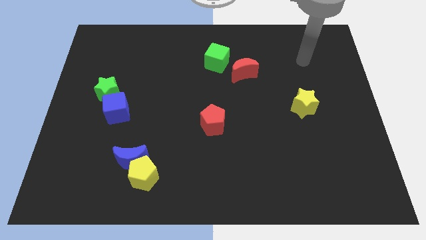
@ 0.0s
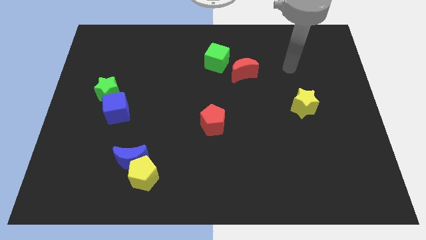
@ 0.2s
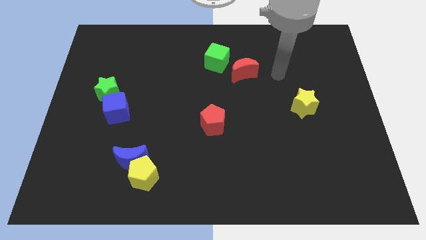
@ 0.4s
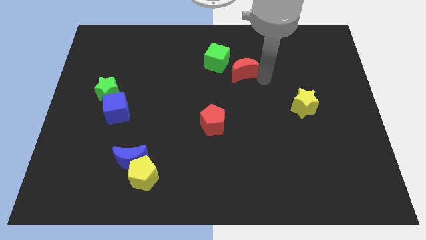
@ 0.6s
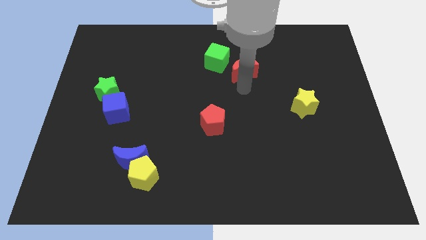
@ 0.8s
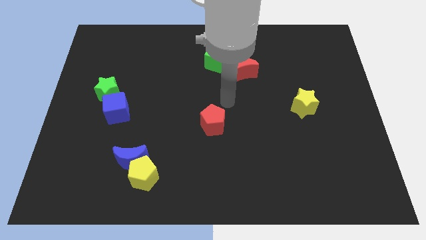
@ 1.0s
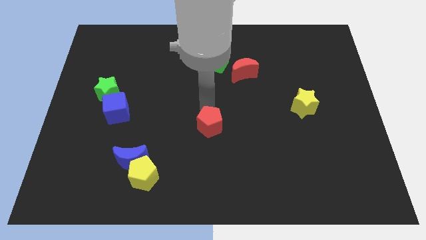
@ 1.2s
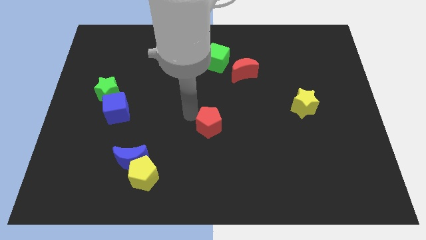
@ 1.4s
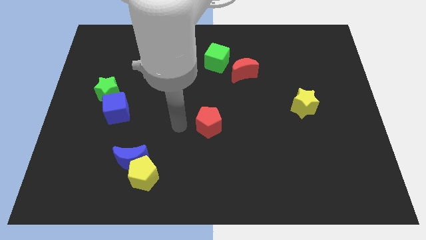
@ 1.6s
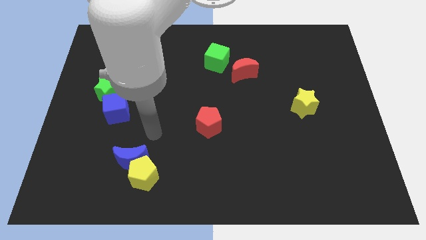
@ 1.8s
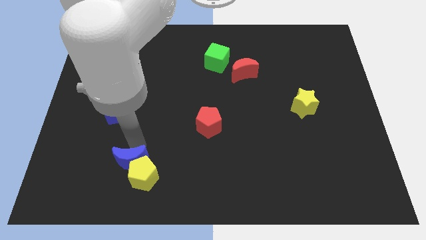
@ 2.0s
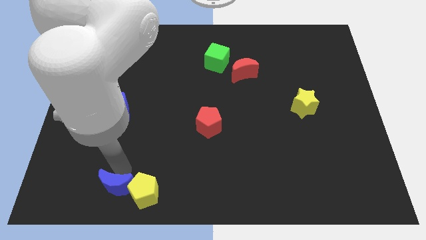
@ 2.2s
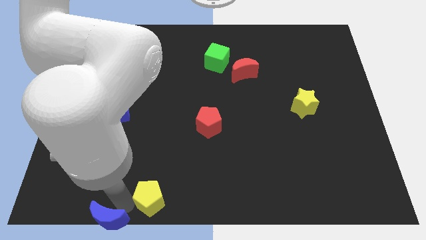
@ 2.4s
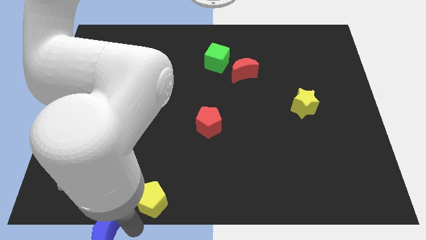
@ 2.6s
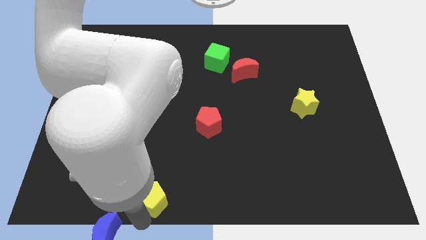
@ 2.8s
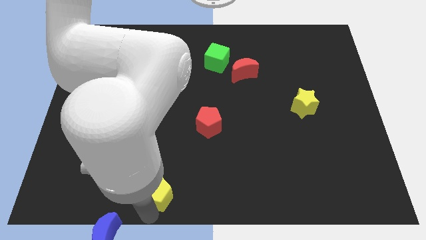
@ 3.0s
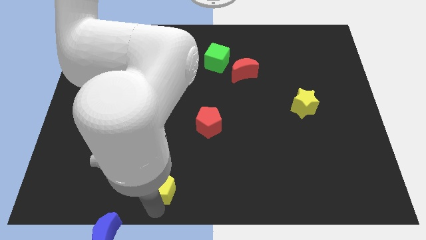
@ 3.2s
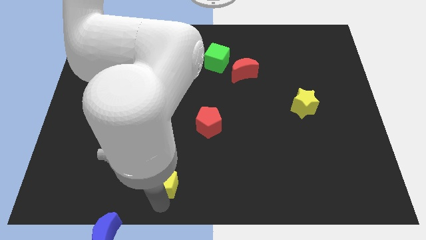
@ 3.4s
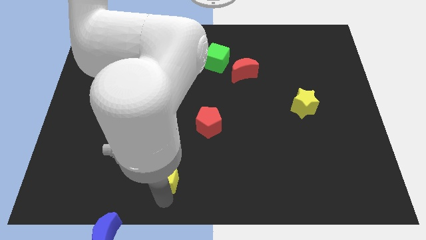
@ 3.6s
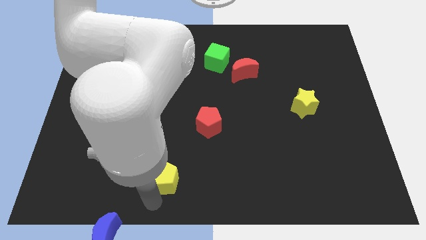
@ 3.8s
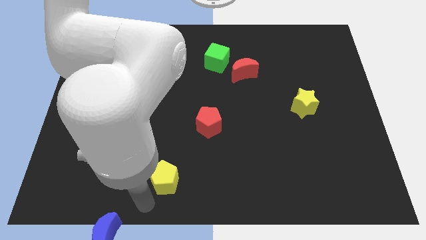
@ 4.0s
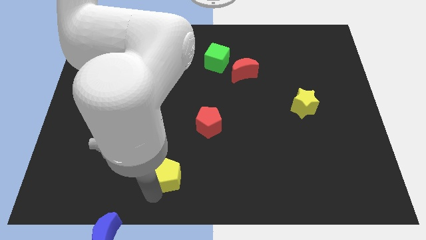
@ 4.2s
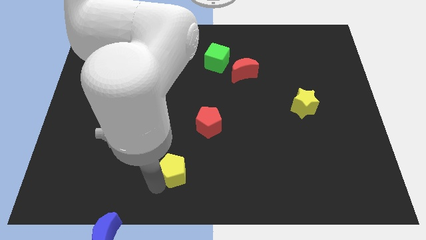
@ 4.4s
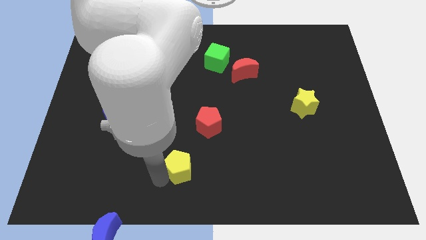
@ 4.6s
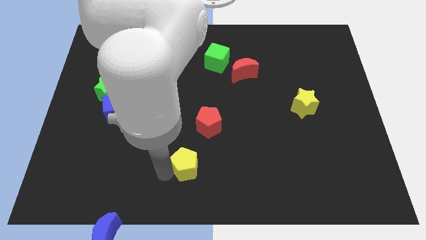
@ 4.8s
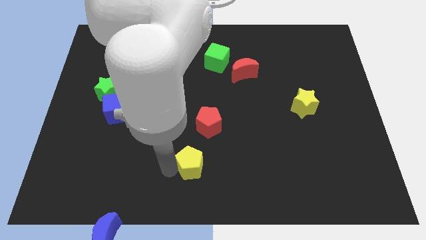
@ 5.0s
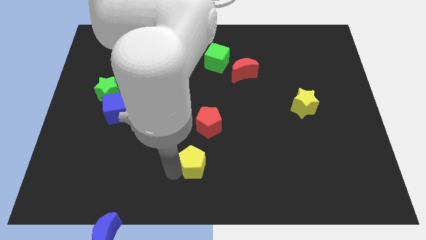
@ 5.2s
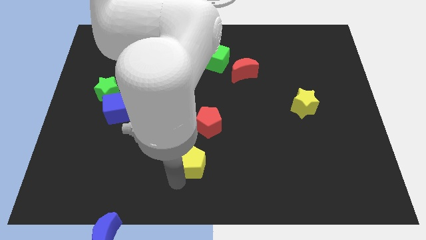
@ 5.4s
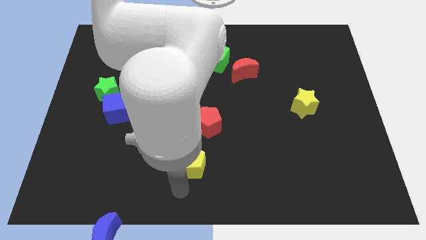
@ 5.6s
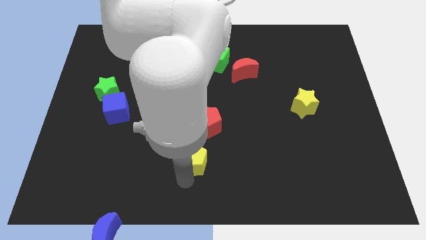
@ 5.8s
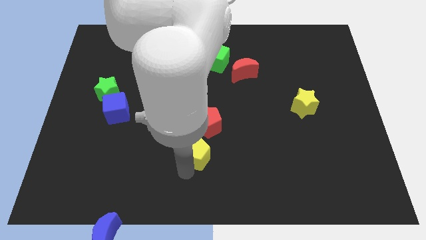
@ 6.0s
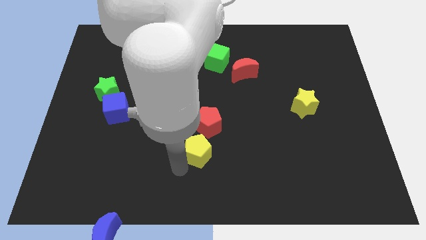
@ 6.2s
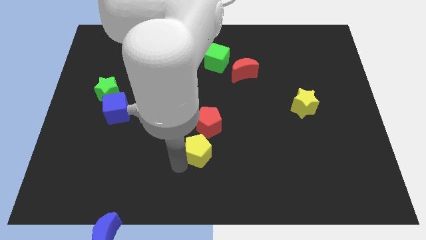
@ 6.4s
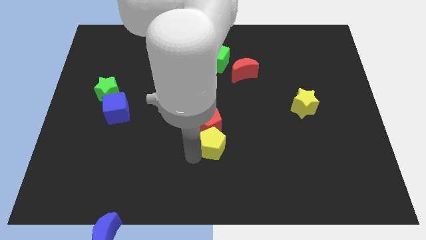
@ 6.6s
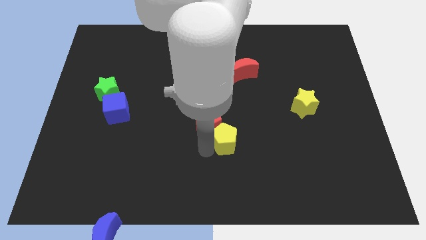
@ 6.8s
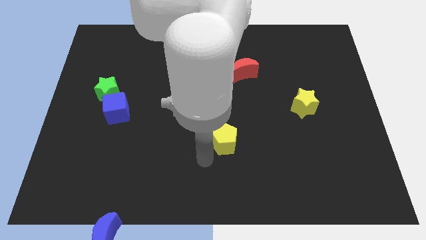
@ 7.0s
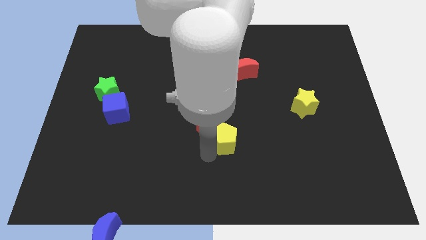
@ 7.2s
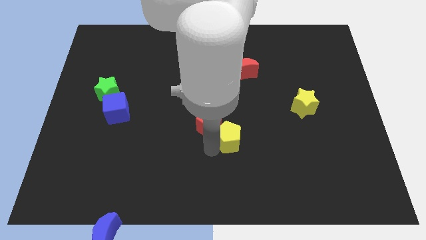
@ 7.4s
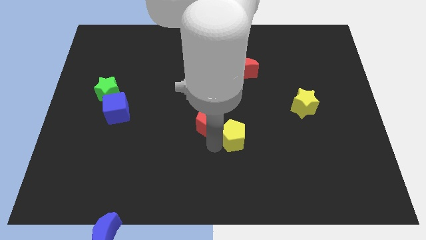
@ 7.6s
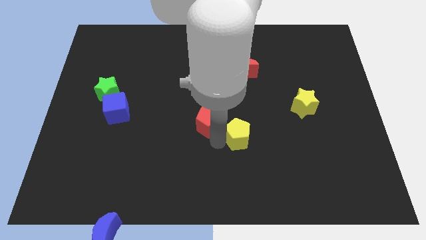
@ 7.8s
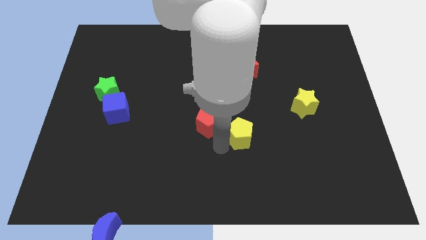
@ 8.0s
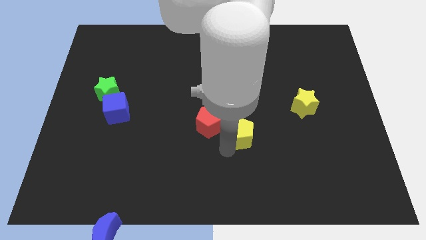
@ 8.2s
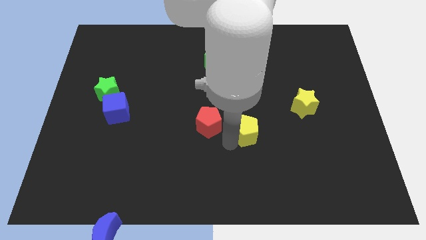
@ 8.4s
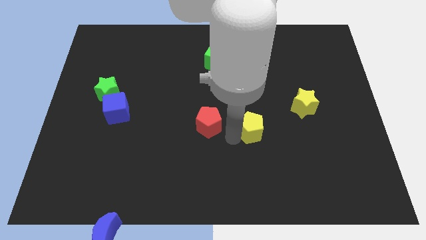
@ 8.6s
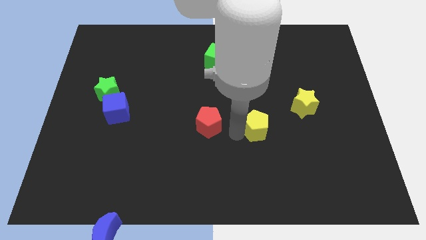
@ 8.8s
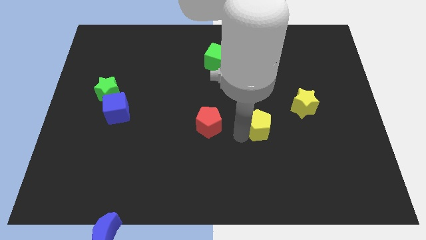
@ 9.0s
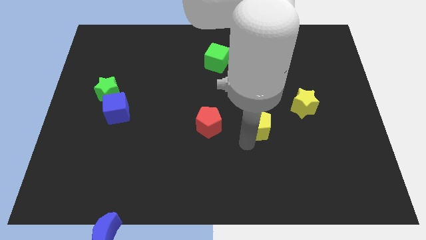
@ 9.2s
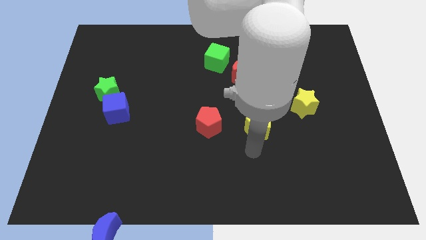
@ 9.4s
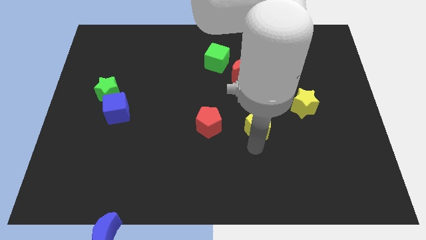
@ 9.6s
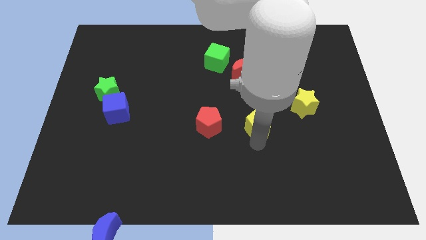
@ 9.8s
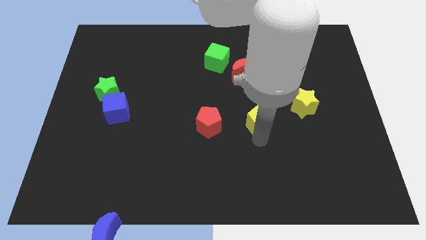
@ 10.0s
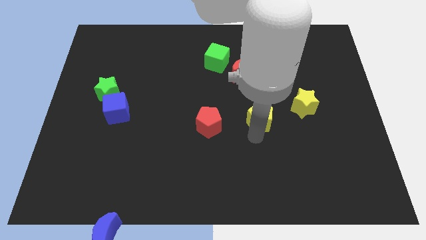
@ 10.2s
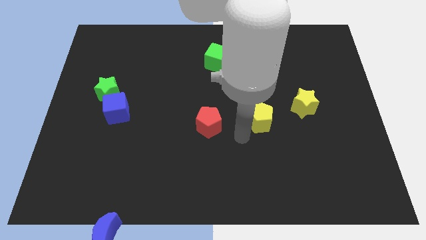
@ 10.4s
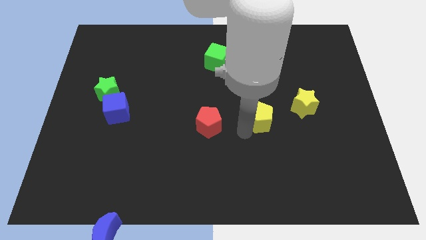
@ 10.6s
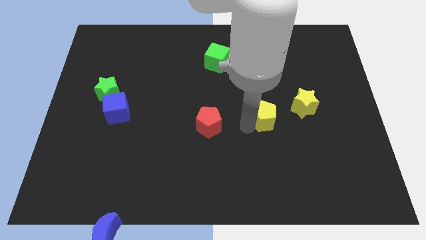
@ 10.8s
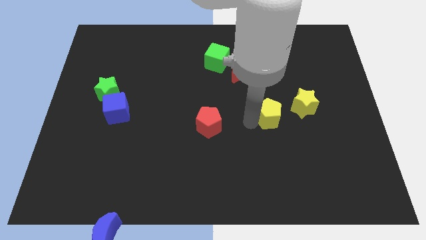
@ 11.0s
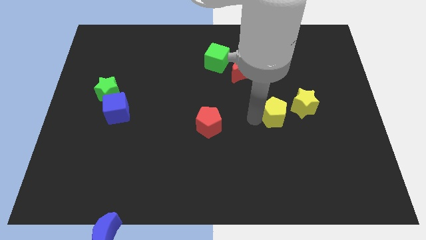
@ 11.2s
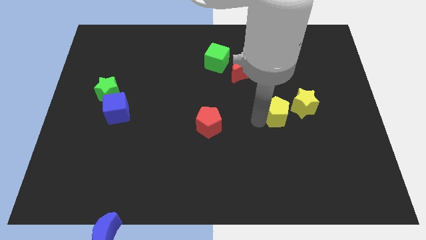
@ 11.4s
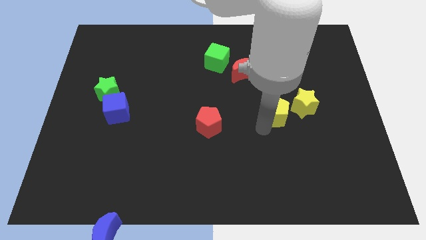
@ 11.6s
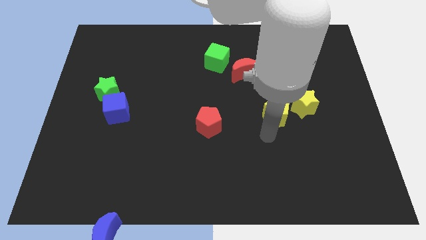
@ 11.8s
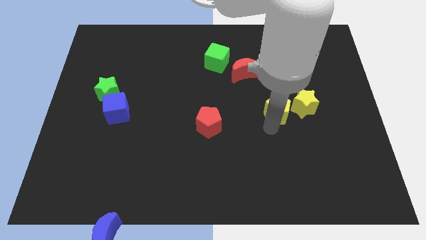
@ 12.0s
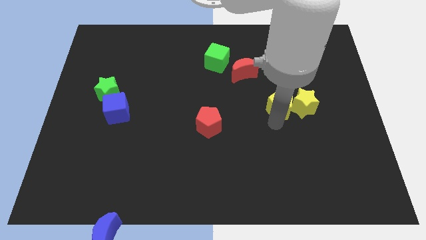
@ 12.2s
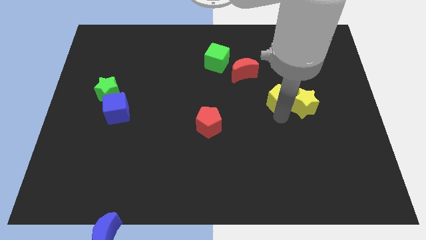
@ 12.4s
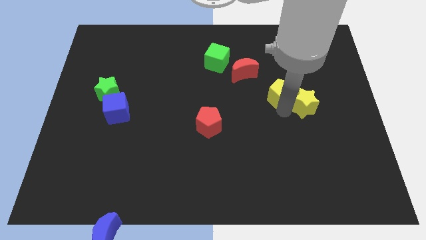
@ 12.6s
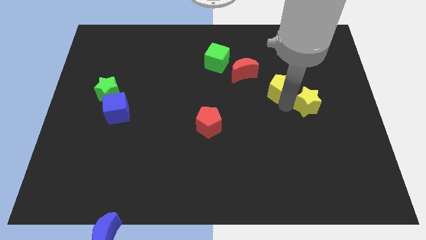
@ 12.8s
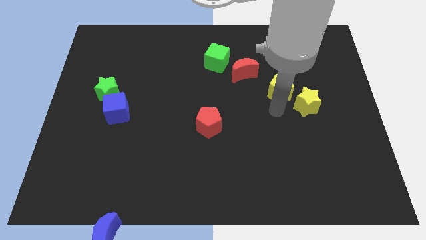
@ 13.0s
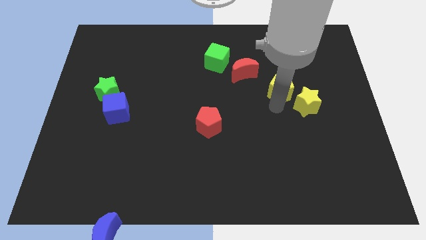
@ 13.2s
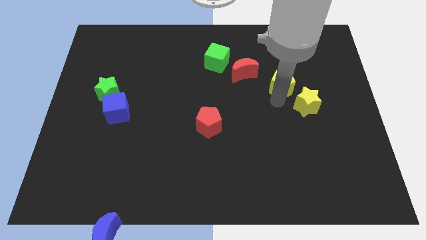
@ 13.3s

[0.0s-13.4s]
slide the yellow pentagon to the right of the red moon

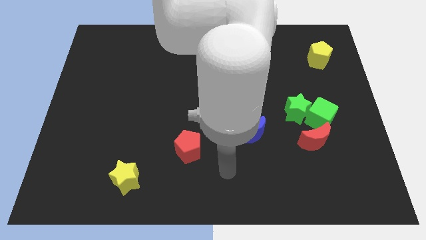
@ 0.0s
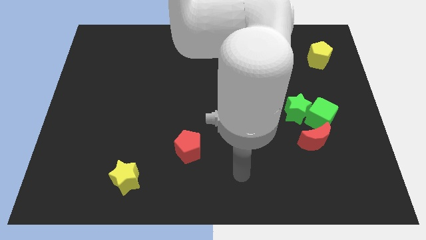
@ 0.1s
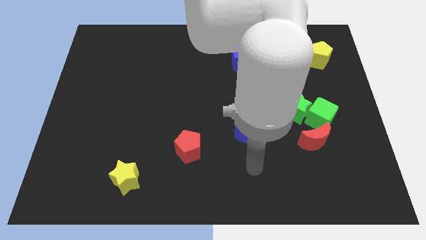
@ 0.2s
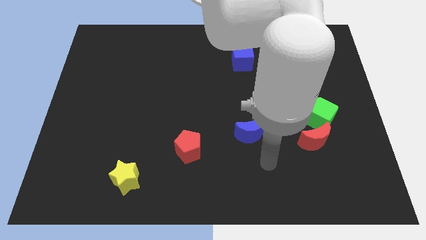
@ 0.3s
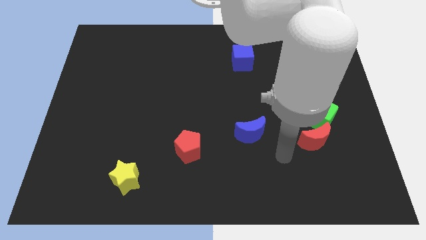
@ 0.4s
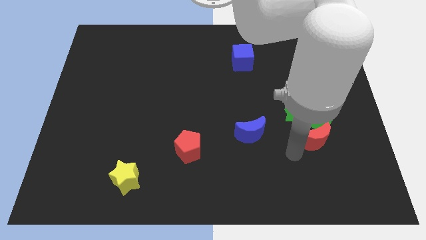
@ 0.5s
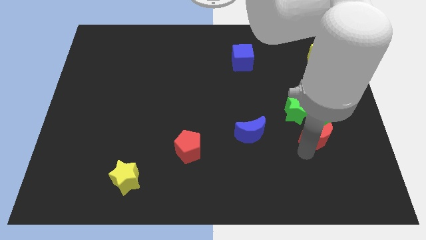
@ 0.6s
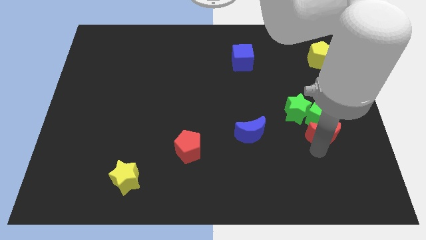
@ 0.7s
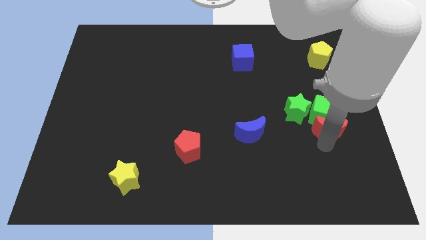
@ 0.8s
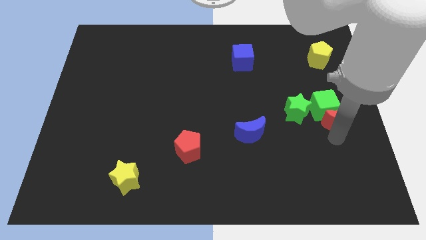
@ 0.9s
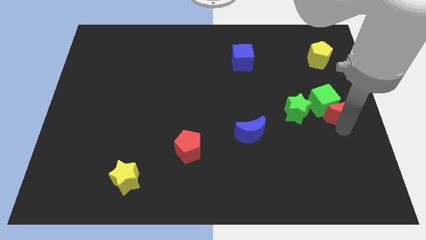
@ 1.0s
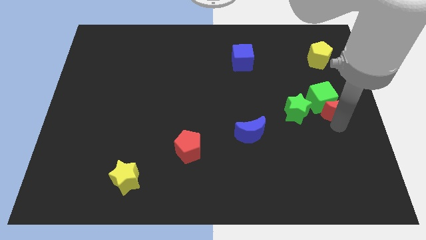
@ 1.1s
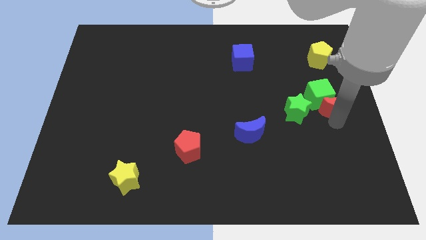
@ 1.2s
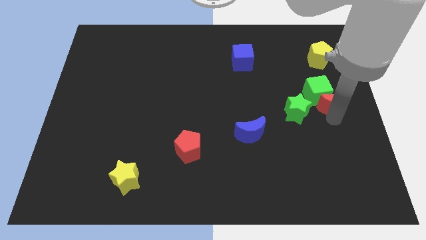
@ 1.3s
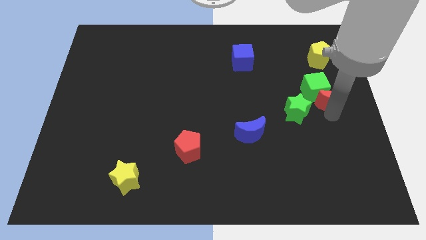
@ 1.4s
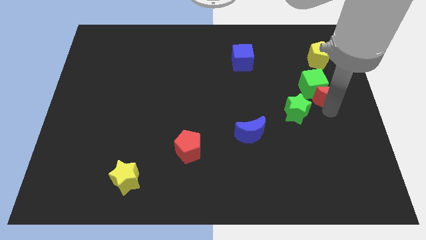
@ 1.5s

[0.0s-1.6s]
slide the green cube diagonally down and to the left of the yellow pentagon
